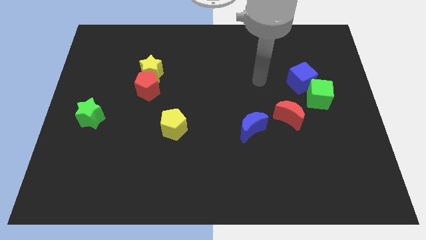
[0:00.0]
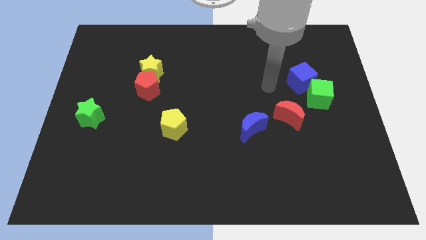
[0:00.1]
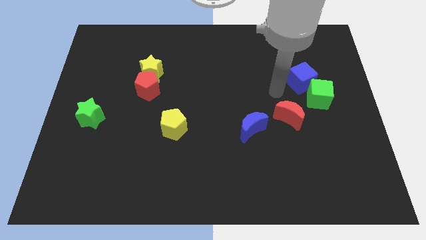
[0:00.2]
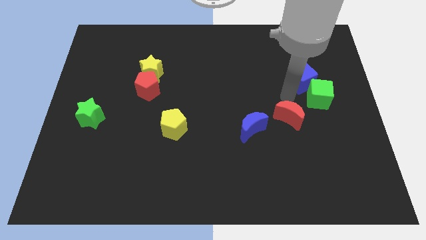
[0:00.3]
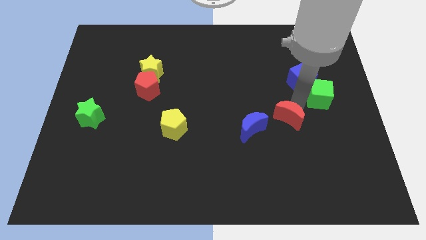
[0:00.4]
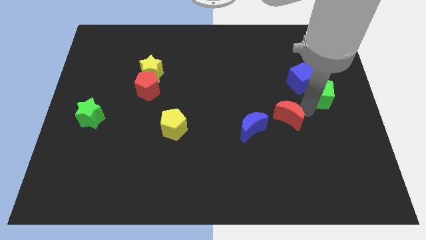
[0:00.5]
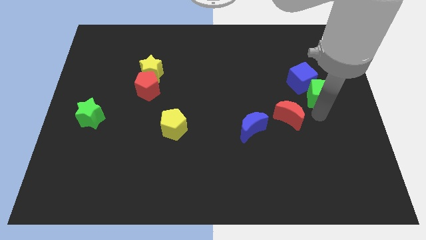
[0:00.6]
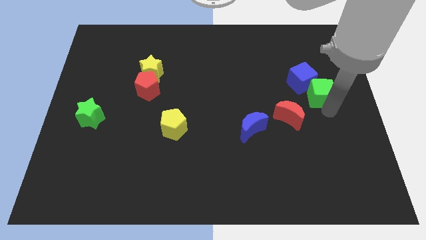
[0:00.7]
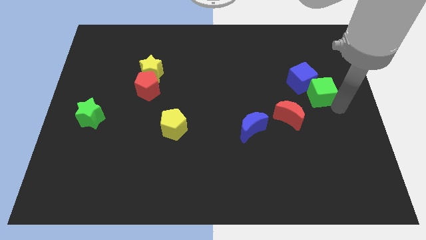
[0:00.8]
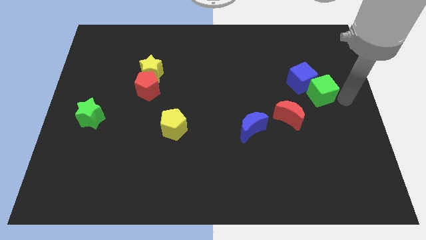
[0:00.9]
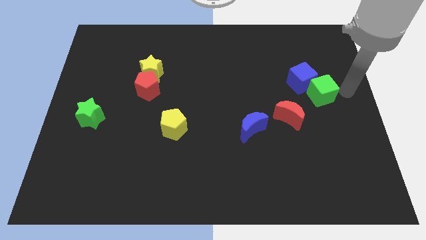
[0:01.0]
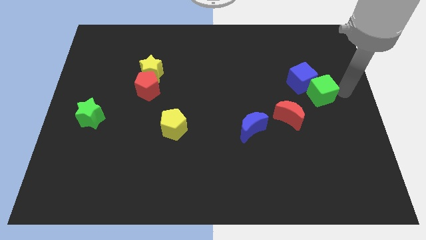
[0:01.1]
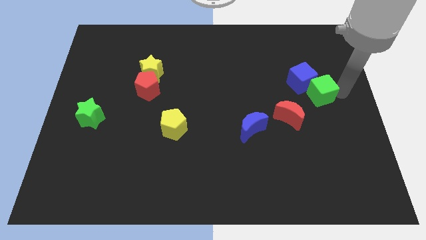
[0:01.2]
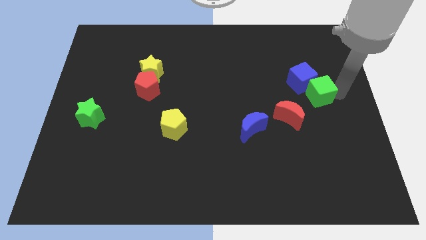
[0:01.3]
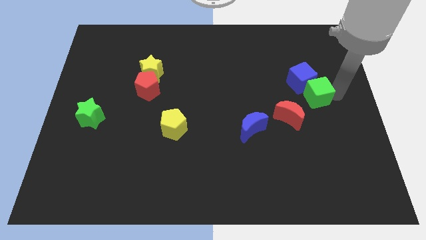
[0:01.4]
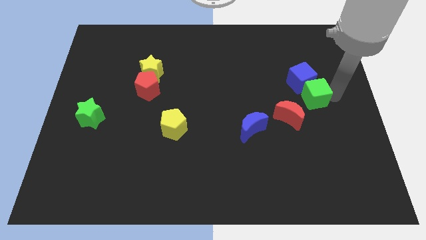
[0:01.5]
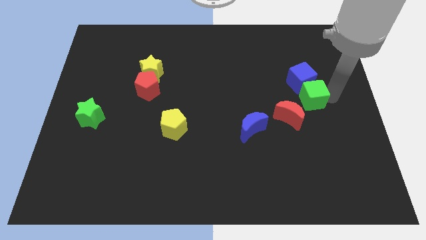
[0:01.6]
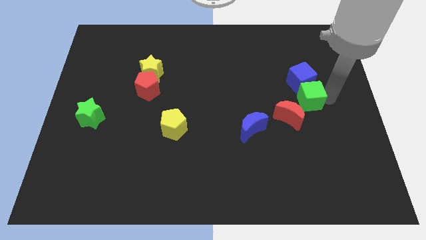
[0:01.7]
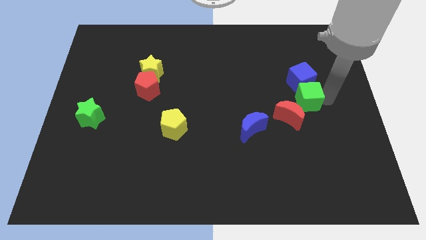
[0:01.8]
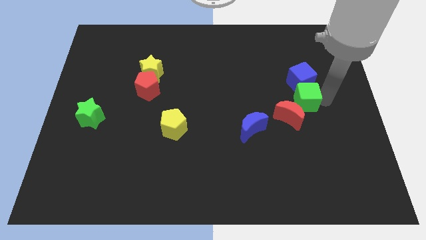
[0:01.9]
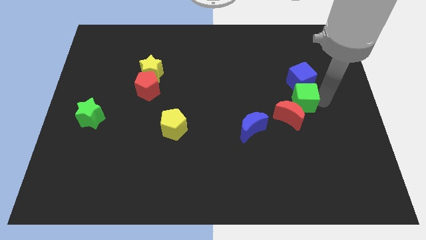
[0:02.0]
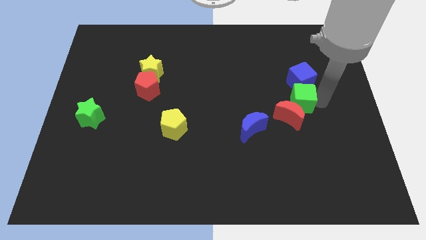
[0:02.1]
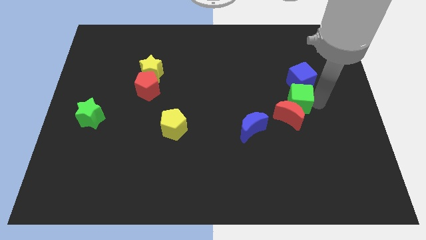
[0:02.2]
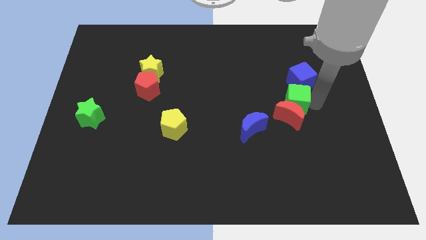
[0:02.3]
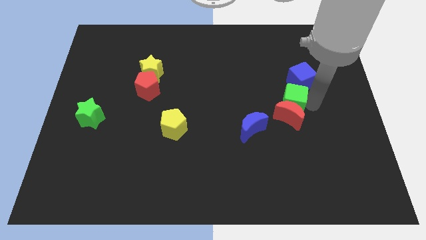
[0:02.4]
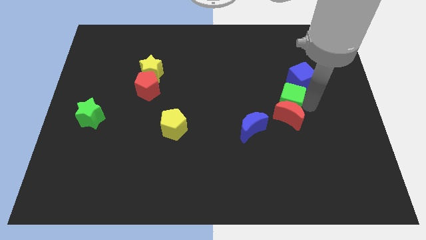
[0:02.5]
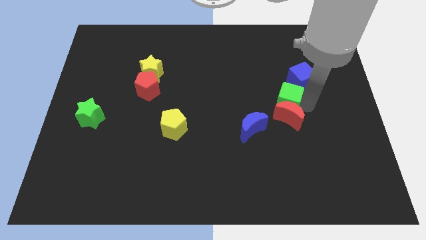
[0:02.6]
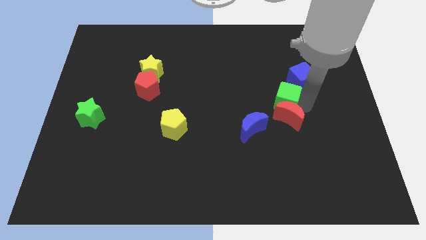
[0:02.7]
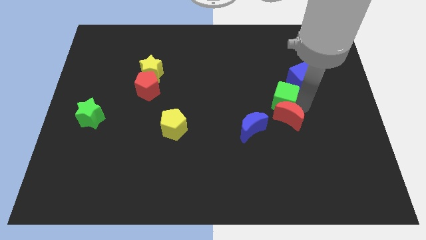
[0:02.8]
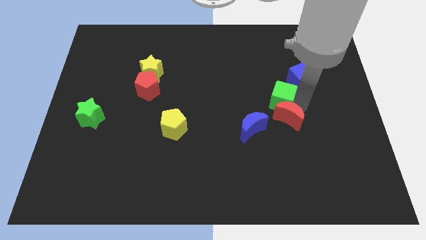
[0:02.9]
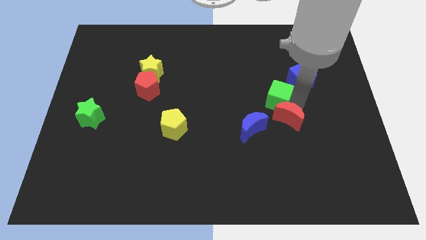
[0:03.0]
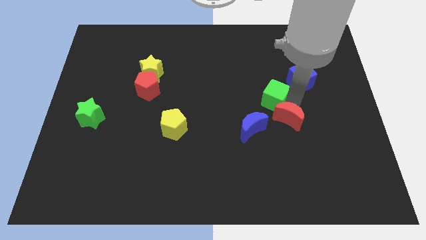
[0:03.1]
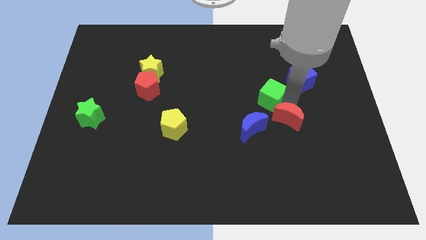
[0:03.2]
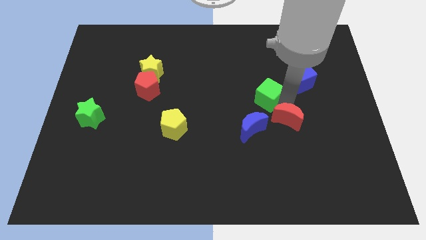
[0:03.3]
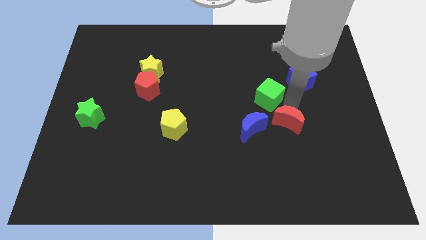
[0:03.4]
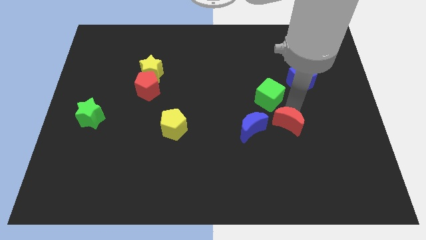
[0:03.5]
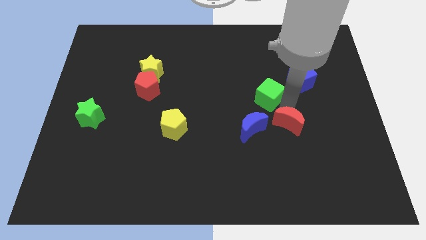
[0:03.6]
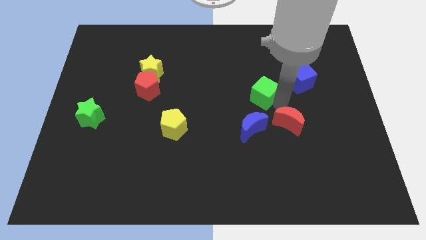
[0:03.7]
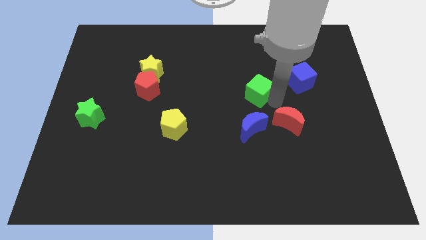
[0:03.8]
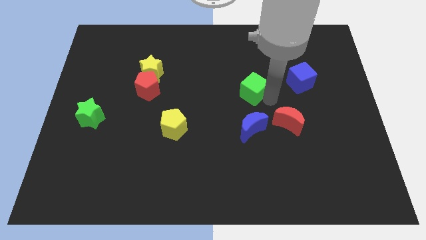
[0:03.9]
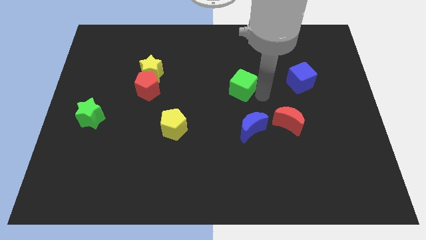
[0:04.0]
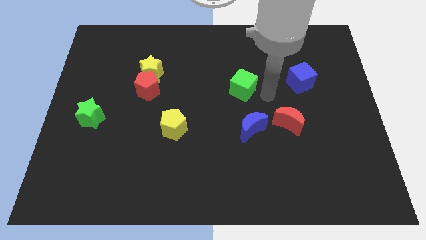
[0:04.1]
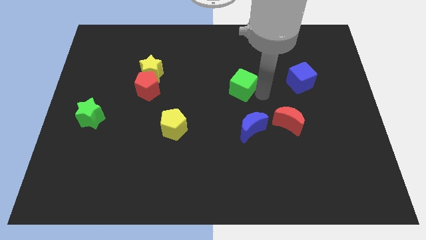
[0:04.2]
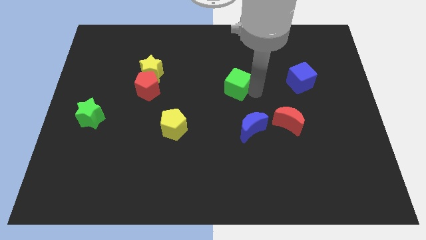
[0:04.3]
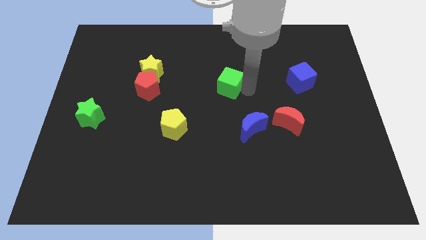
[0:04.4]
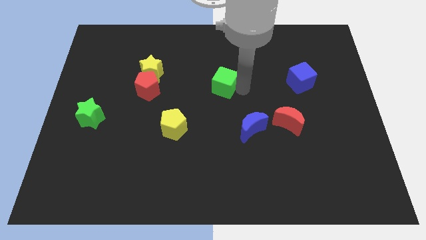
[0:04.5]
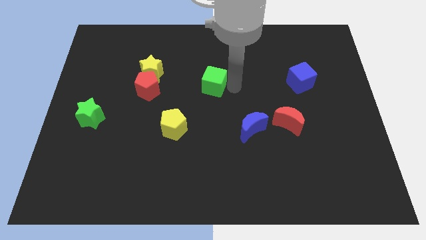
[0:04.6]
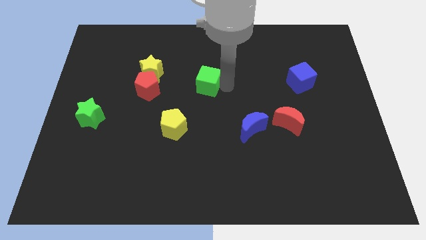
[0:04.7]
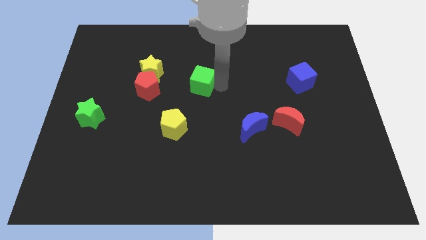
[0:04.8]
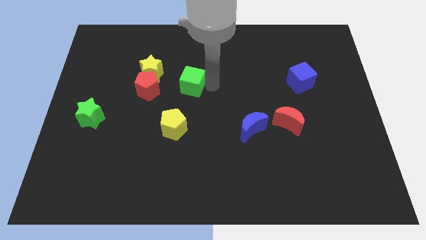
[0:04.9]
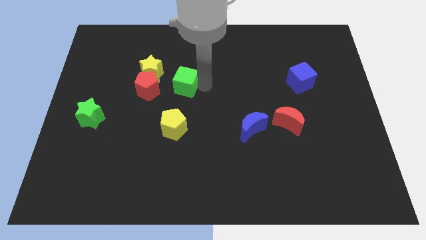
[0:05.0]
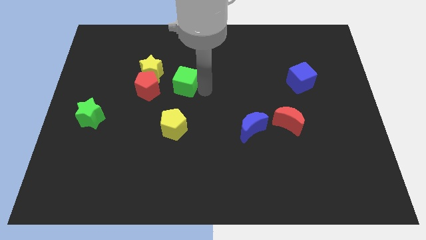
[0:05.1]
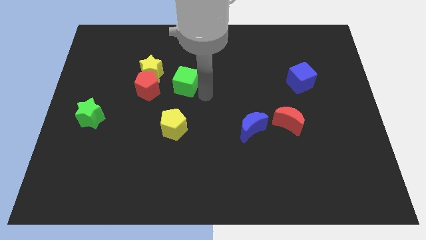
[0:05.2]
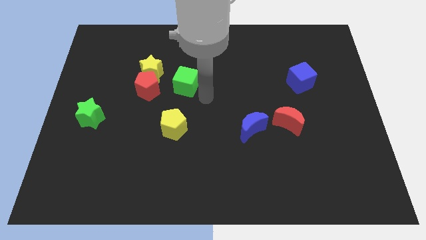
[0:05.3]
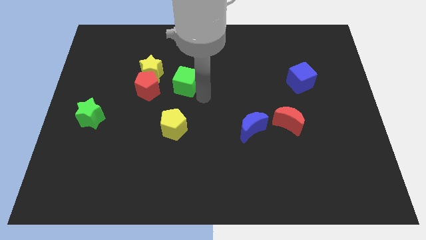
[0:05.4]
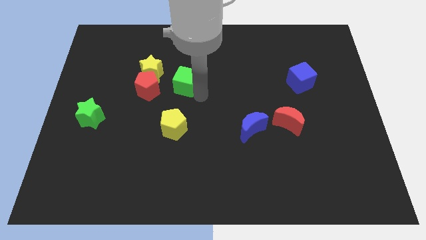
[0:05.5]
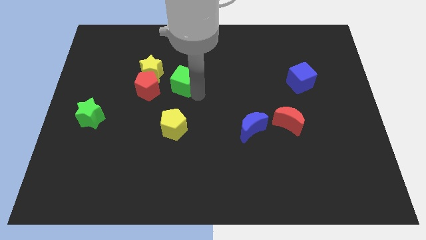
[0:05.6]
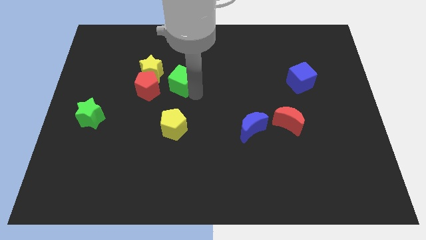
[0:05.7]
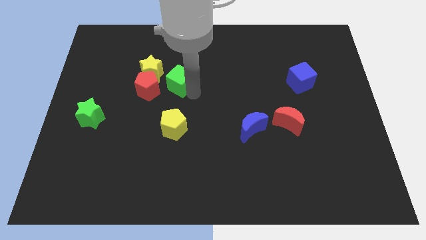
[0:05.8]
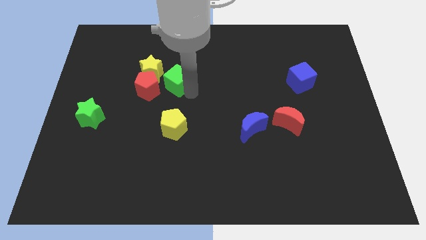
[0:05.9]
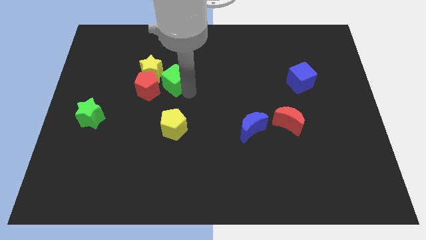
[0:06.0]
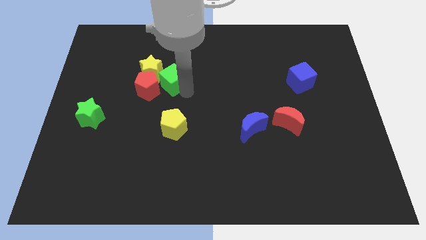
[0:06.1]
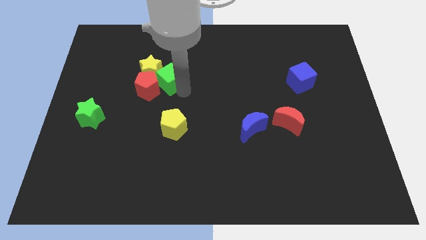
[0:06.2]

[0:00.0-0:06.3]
slide the green cube close to the yellow star
